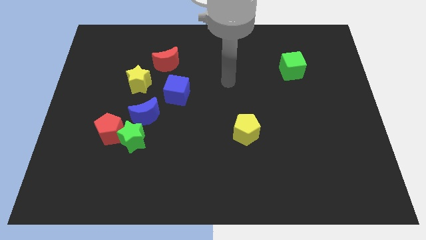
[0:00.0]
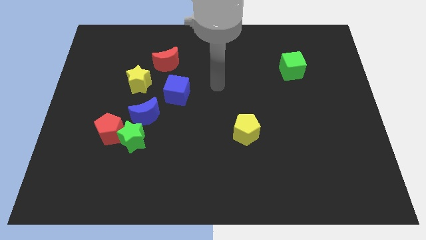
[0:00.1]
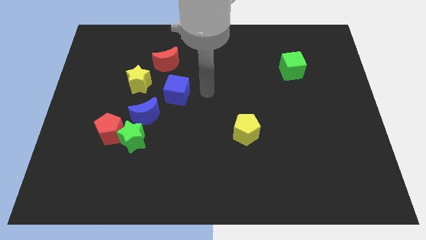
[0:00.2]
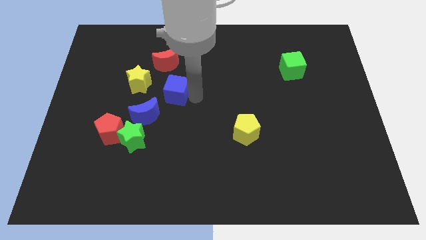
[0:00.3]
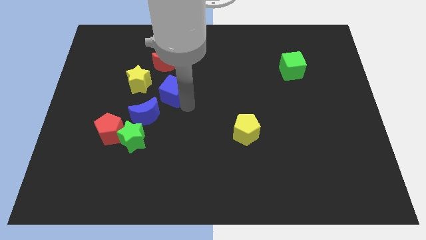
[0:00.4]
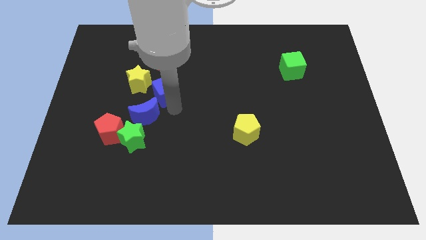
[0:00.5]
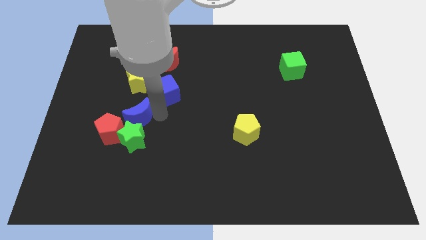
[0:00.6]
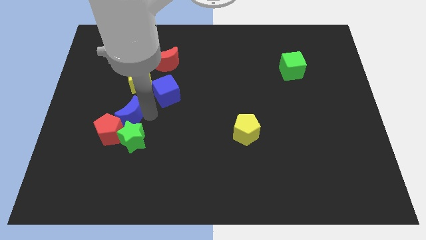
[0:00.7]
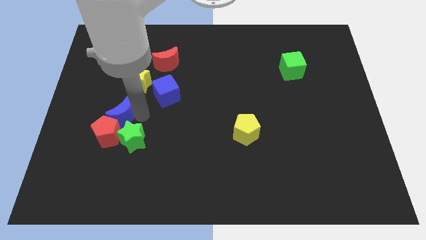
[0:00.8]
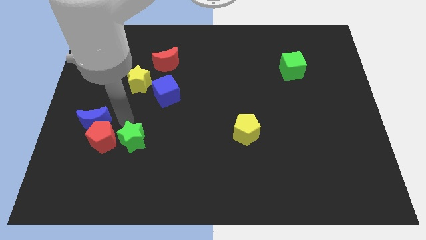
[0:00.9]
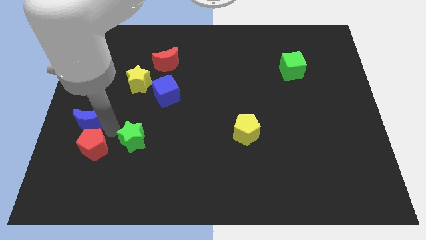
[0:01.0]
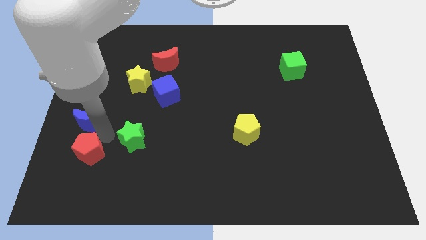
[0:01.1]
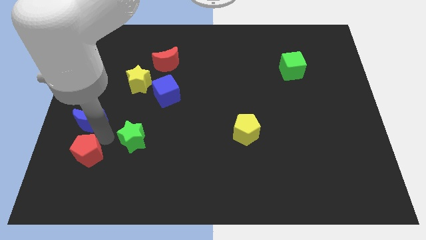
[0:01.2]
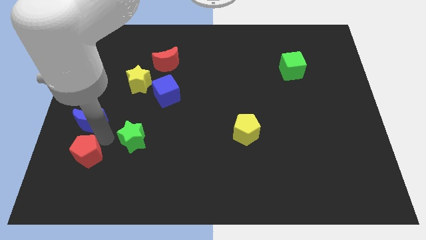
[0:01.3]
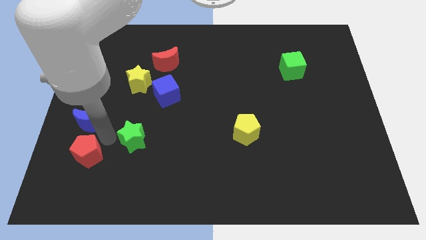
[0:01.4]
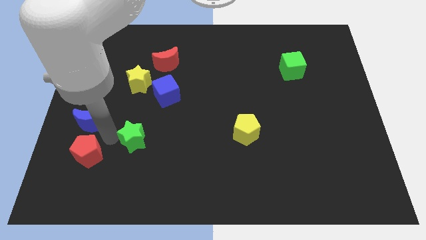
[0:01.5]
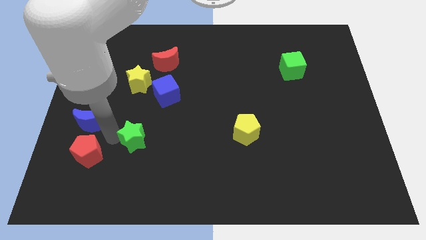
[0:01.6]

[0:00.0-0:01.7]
move the green star away from the red pentagon and blue moon

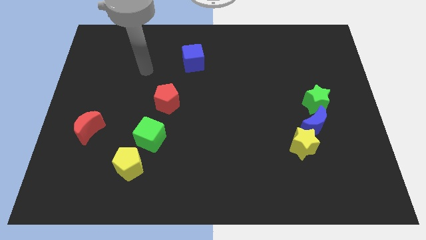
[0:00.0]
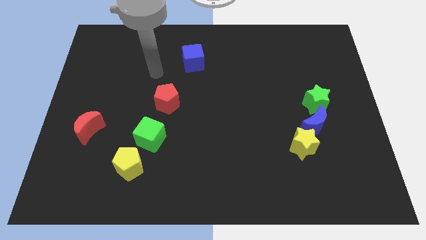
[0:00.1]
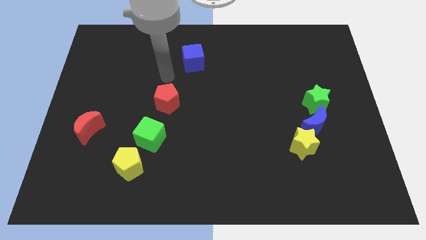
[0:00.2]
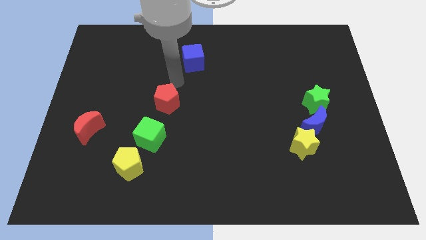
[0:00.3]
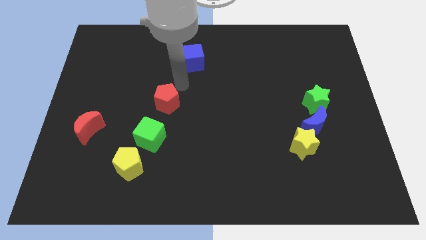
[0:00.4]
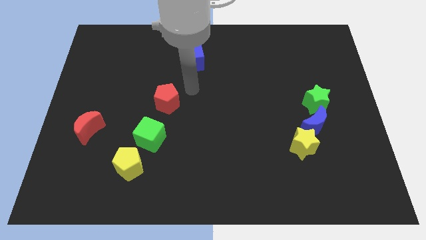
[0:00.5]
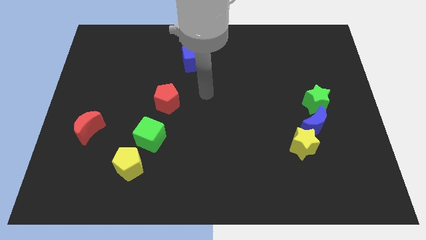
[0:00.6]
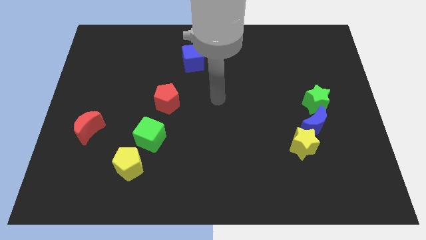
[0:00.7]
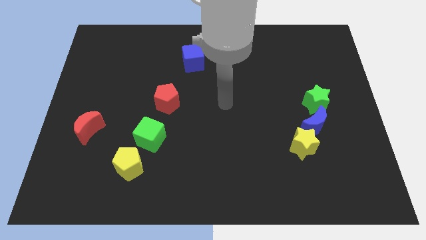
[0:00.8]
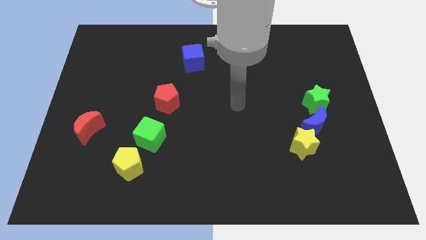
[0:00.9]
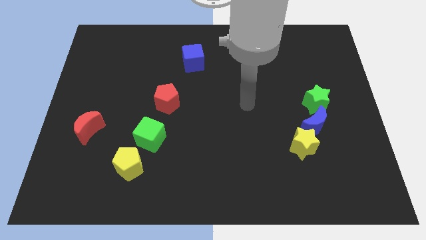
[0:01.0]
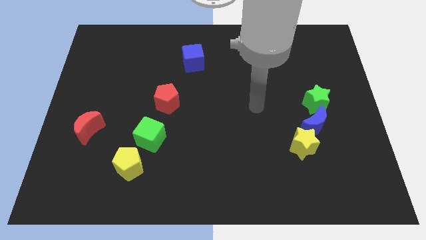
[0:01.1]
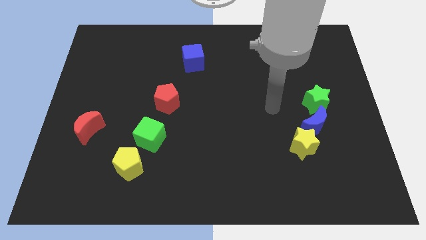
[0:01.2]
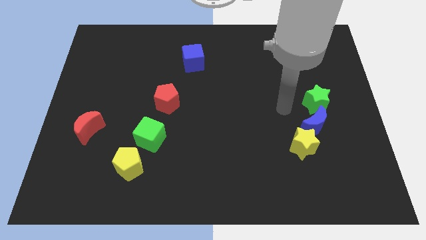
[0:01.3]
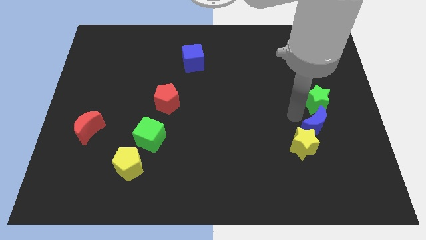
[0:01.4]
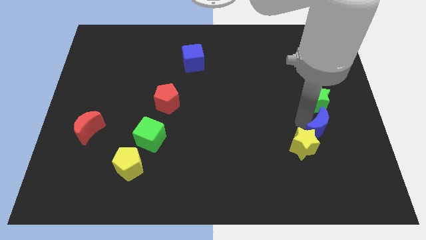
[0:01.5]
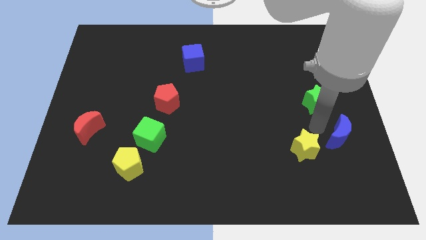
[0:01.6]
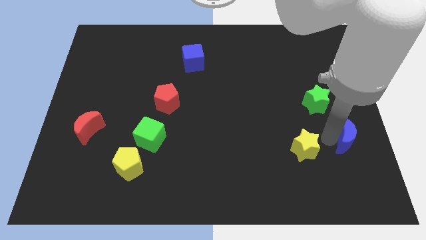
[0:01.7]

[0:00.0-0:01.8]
move the yellow star away from the blue moon

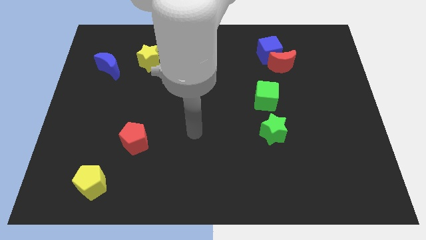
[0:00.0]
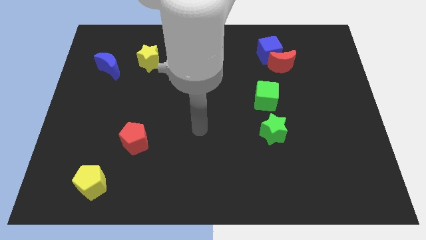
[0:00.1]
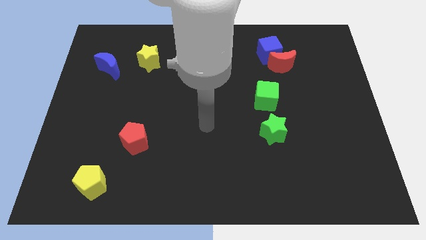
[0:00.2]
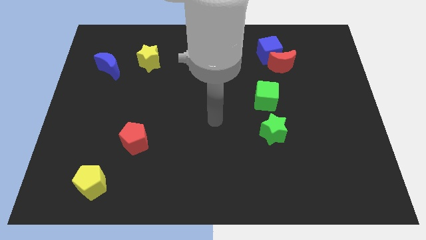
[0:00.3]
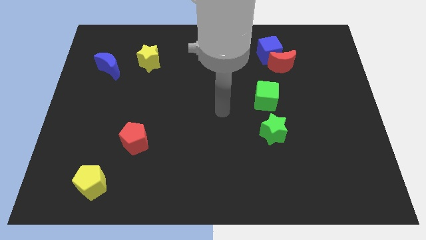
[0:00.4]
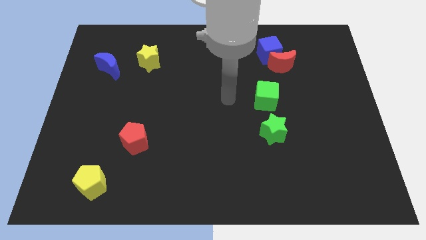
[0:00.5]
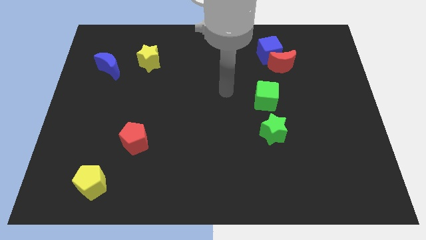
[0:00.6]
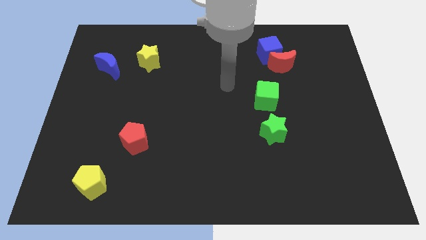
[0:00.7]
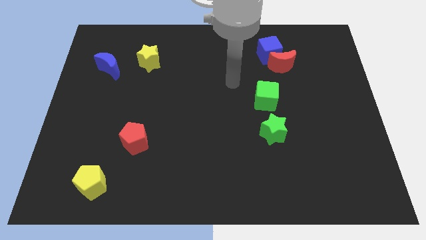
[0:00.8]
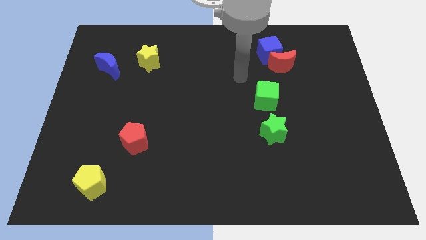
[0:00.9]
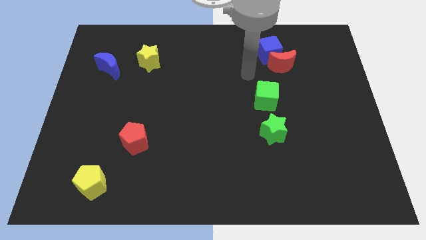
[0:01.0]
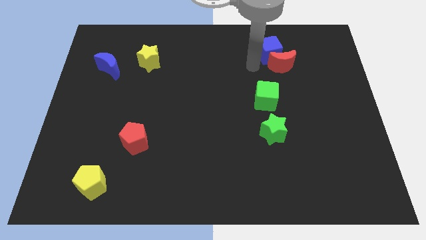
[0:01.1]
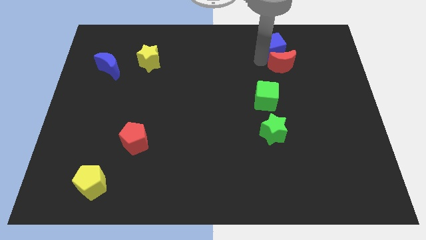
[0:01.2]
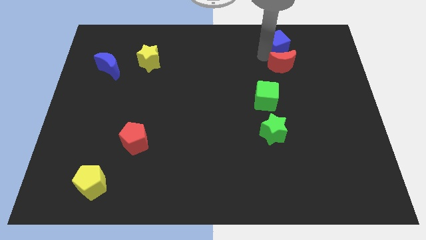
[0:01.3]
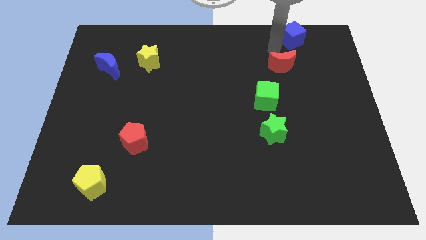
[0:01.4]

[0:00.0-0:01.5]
separate the red moon from the blue cube

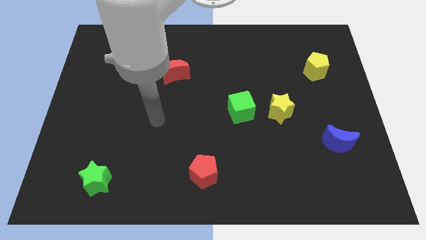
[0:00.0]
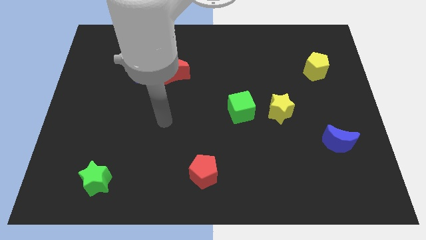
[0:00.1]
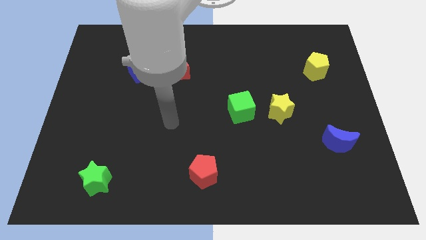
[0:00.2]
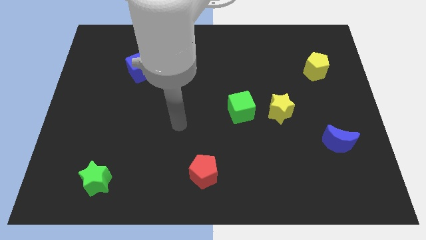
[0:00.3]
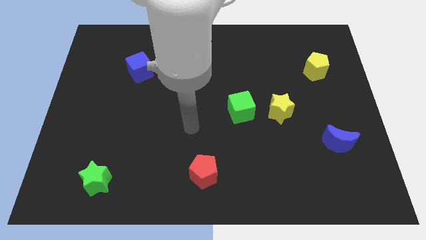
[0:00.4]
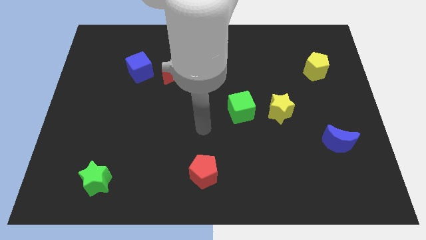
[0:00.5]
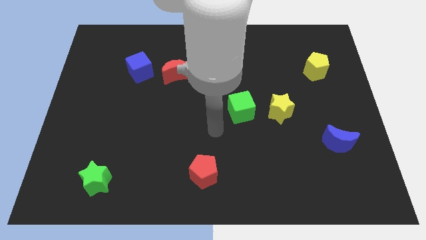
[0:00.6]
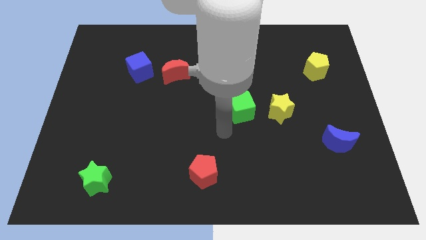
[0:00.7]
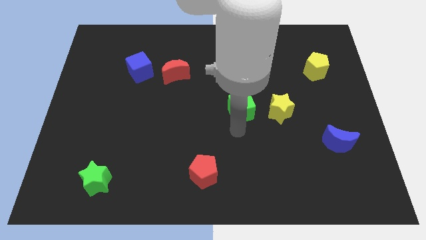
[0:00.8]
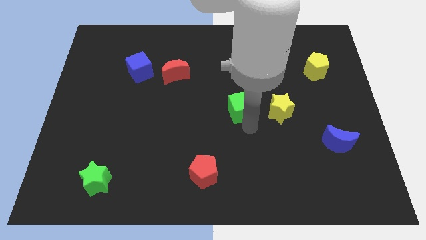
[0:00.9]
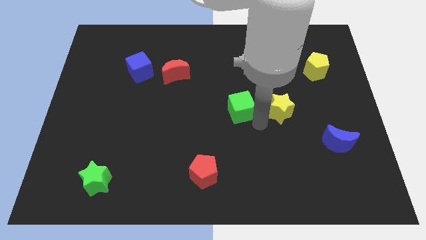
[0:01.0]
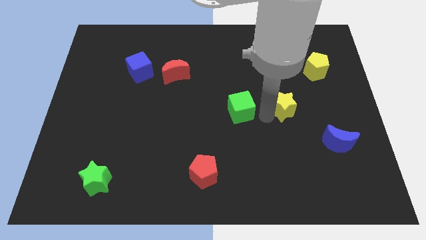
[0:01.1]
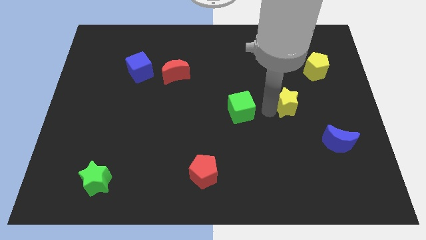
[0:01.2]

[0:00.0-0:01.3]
move the green cube away from the yellow star

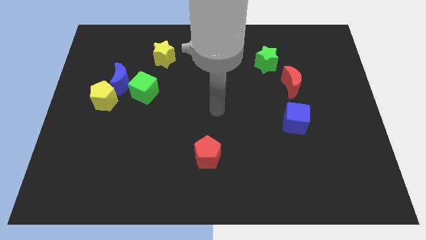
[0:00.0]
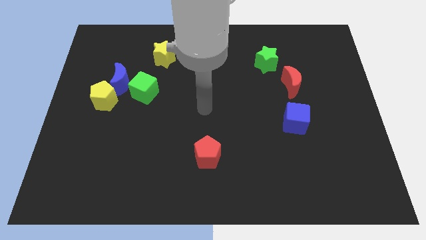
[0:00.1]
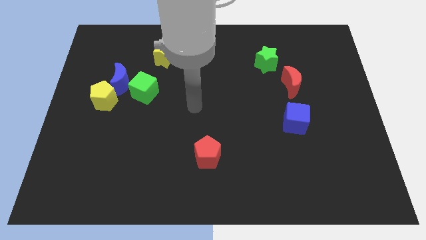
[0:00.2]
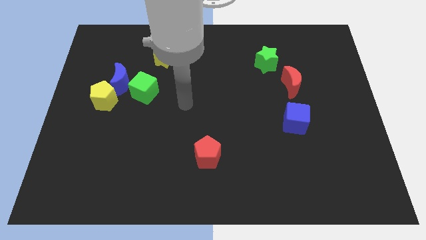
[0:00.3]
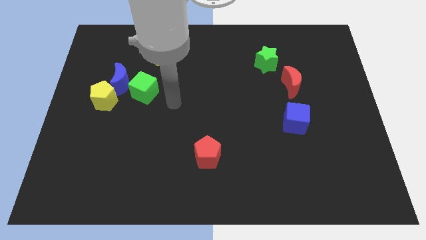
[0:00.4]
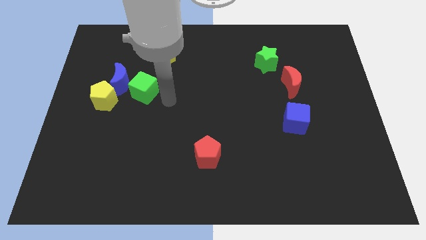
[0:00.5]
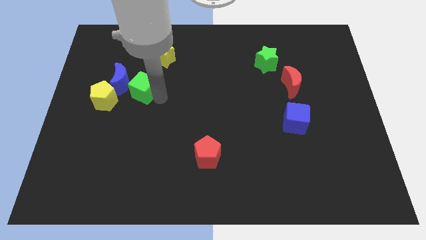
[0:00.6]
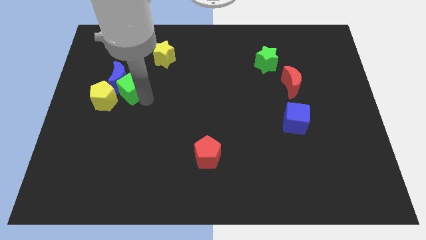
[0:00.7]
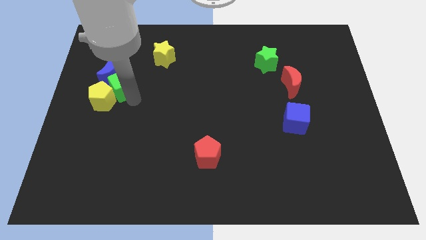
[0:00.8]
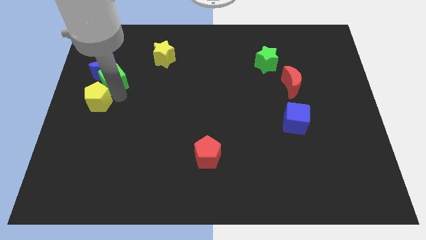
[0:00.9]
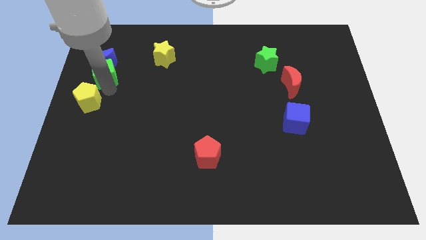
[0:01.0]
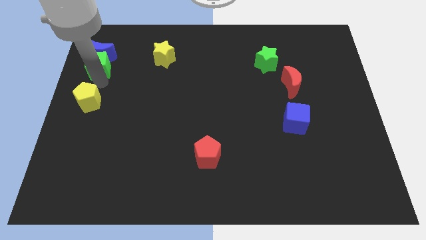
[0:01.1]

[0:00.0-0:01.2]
pull the blue moon apart from the yellow pentagon and green cube

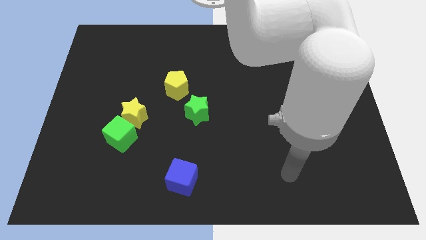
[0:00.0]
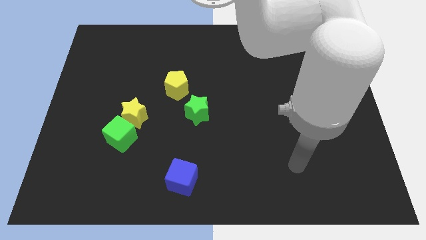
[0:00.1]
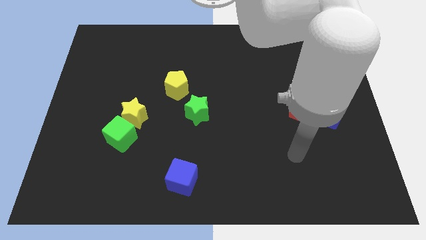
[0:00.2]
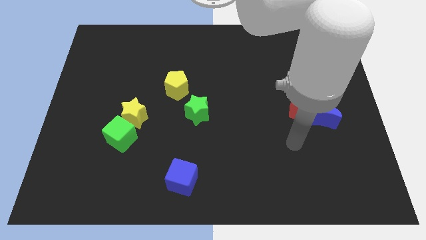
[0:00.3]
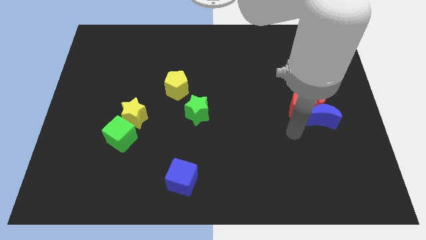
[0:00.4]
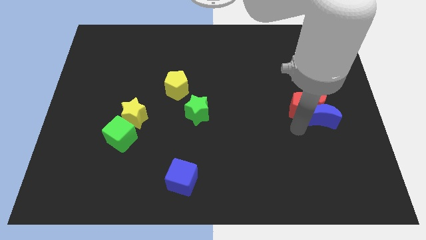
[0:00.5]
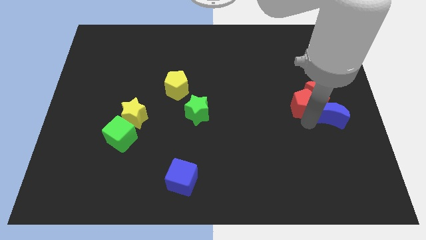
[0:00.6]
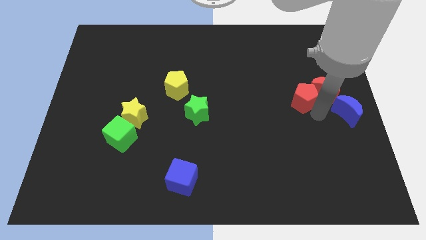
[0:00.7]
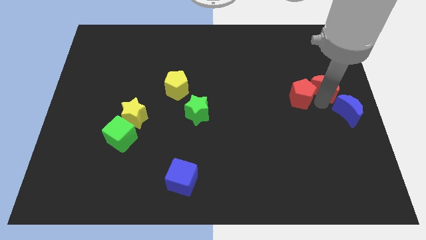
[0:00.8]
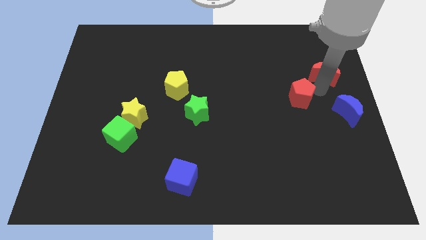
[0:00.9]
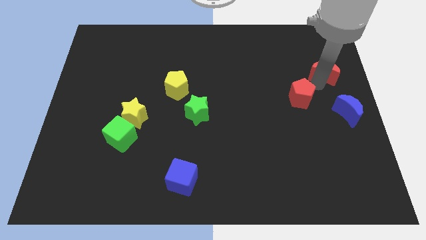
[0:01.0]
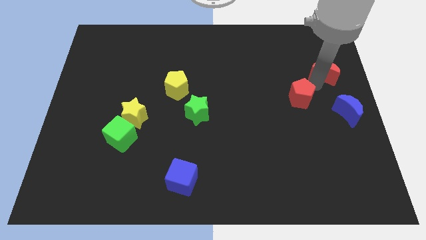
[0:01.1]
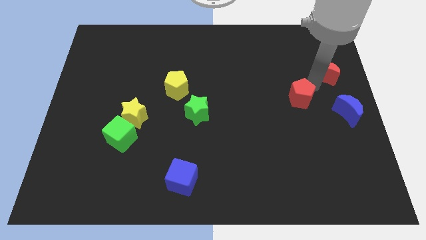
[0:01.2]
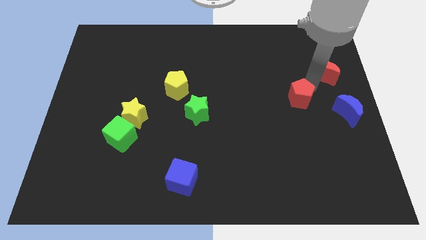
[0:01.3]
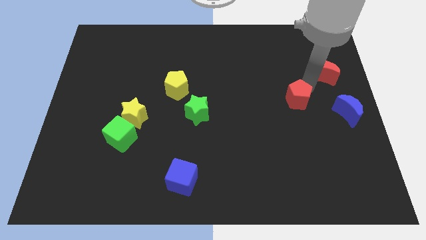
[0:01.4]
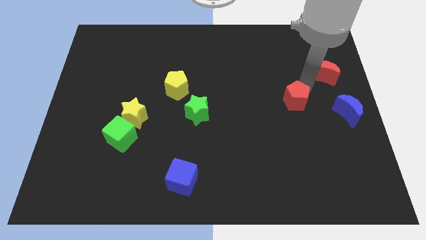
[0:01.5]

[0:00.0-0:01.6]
separate the red pentagon from the red moon and blue moon

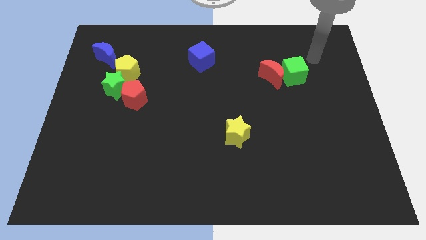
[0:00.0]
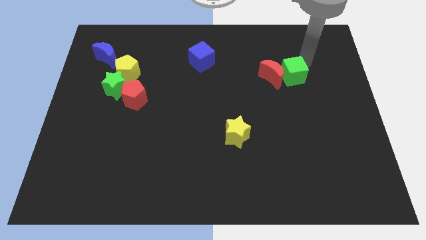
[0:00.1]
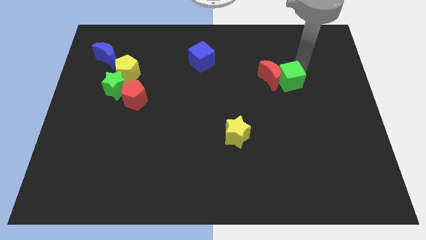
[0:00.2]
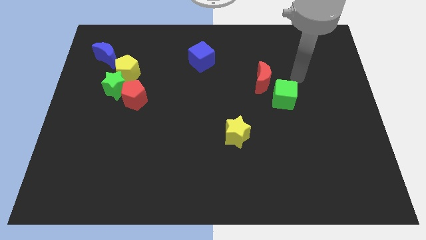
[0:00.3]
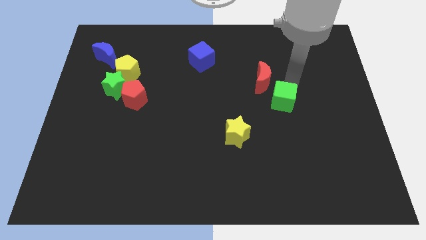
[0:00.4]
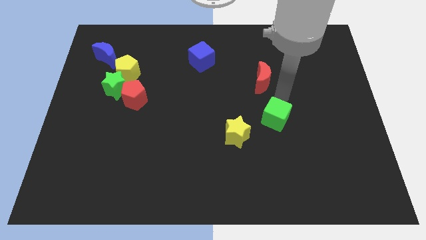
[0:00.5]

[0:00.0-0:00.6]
pull the red moon apart from the green cube
